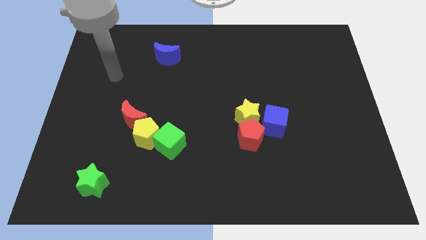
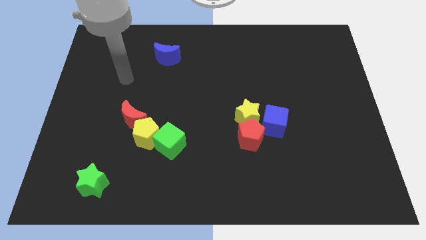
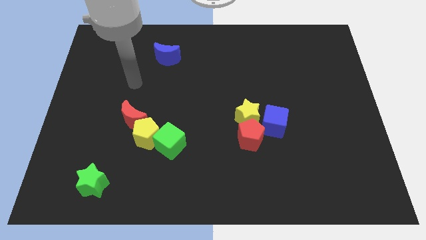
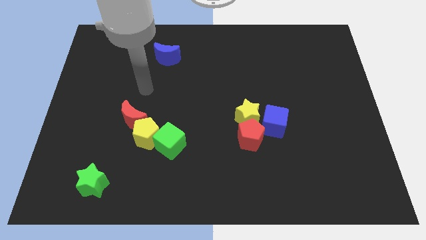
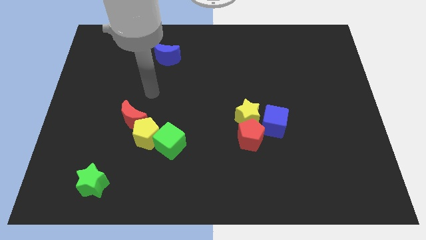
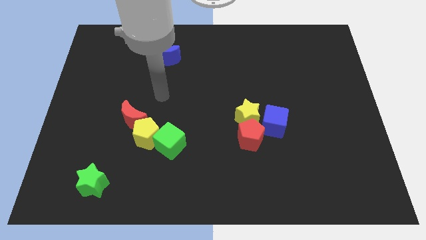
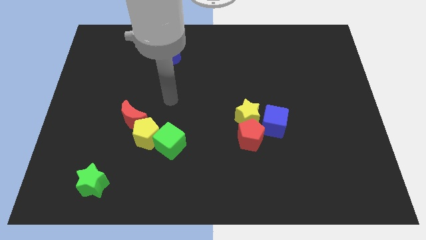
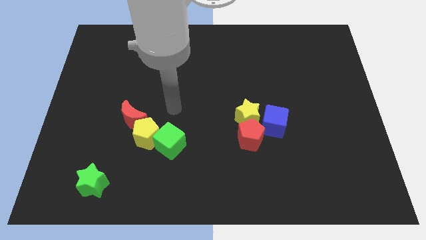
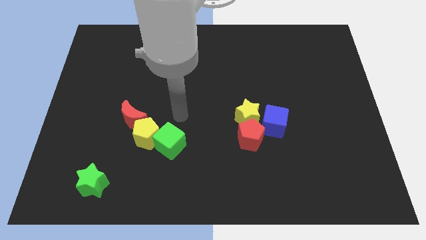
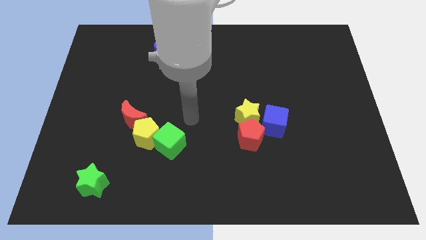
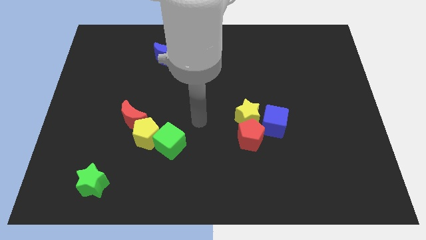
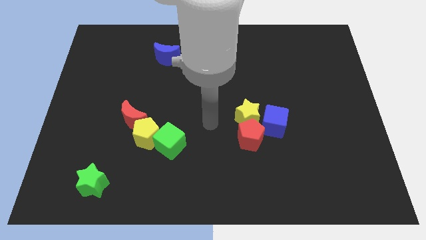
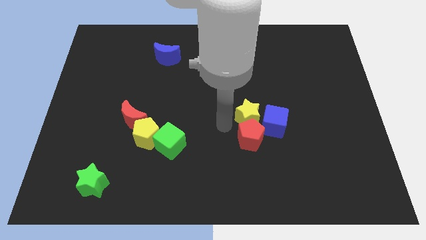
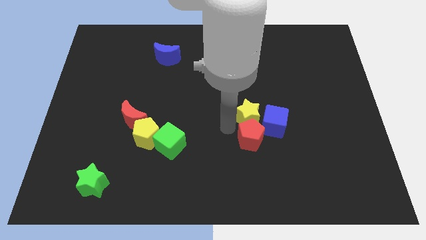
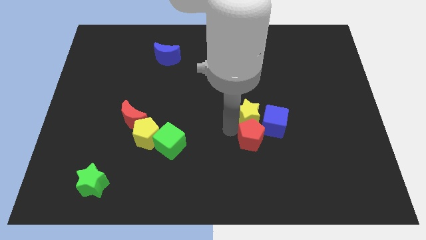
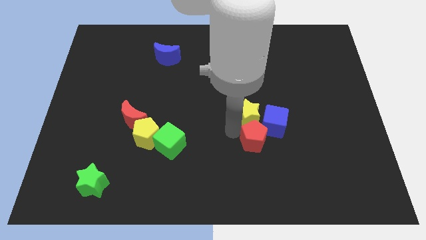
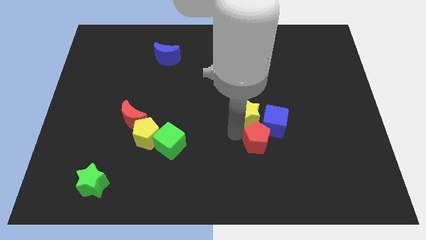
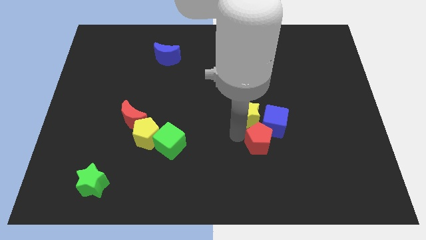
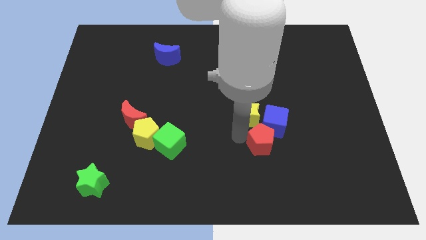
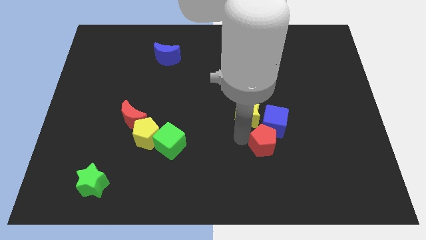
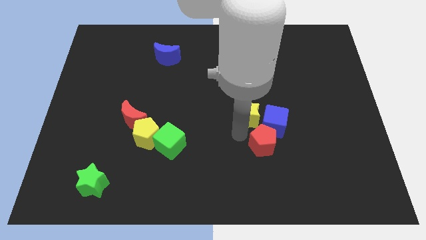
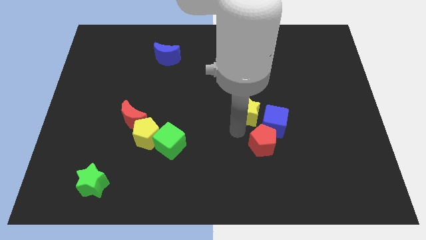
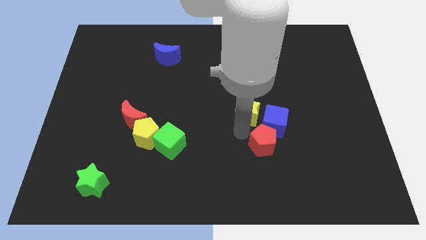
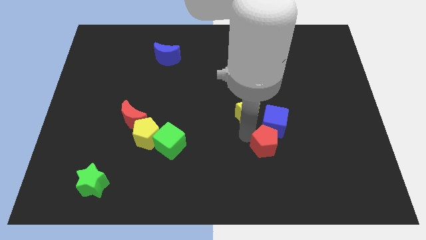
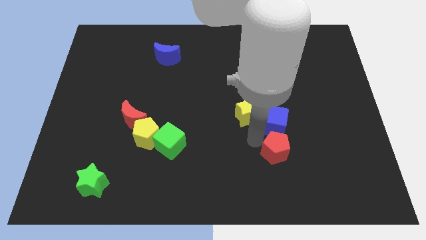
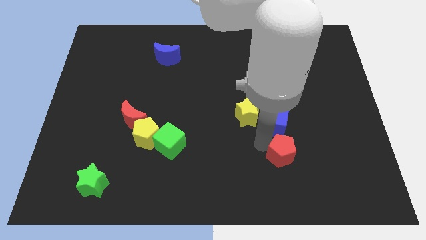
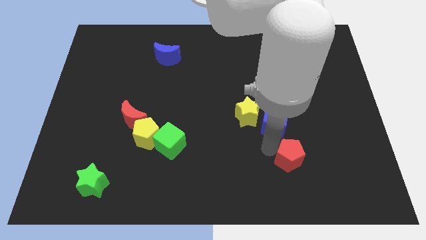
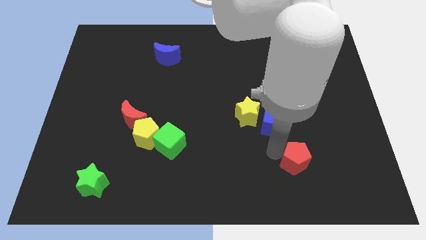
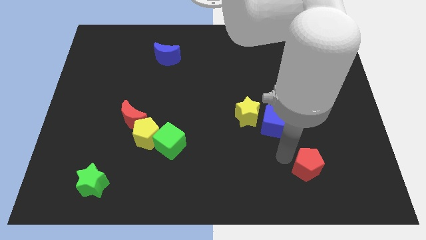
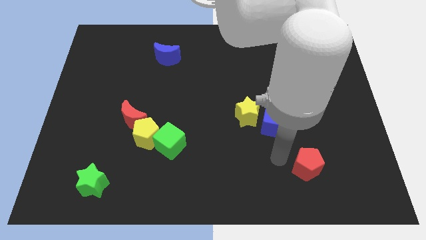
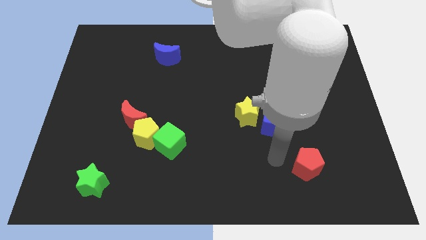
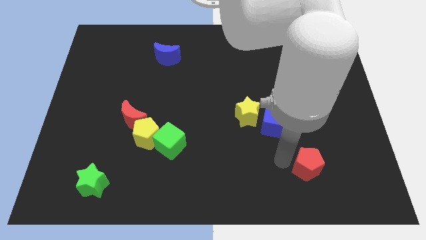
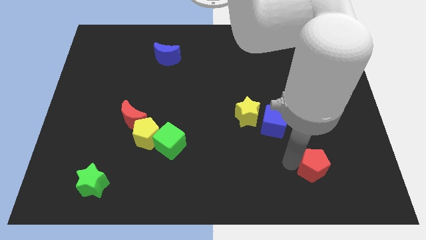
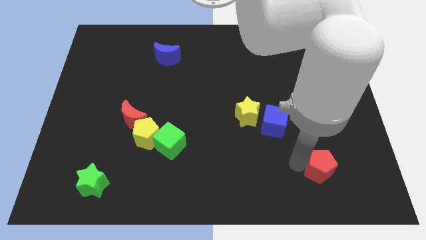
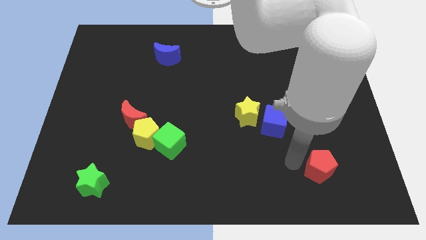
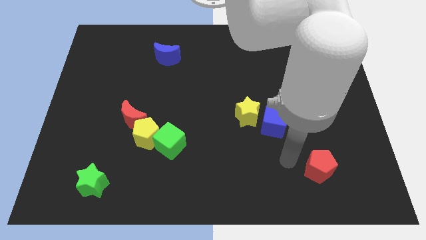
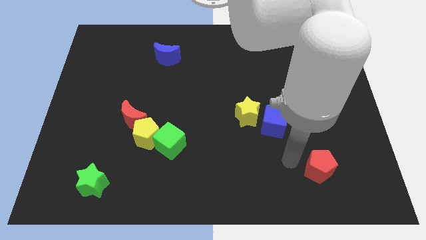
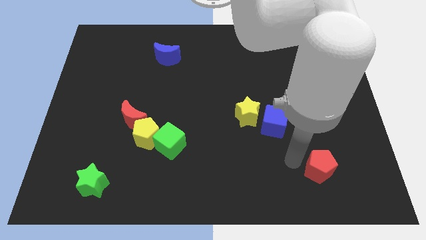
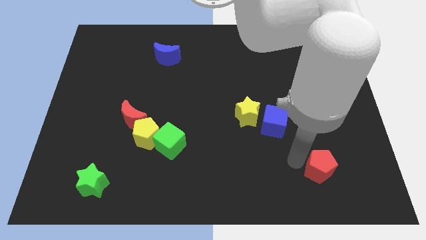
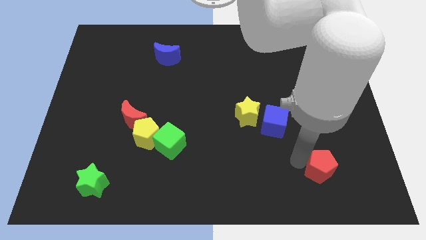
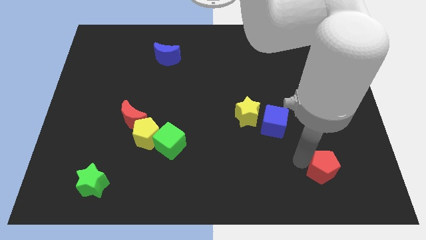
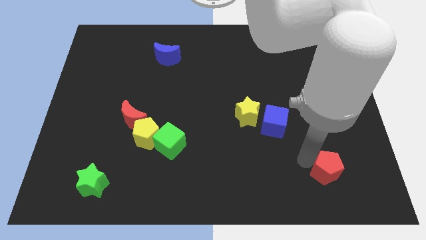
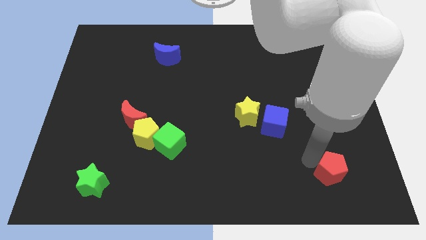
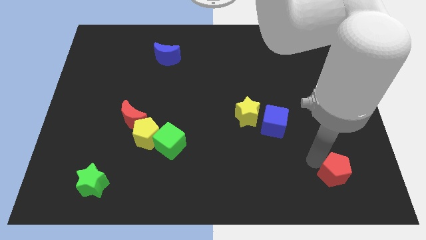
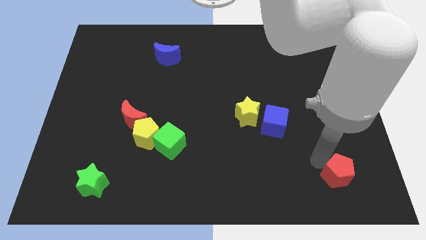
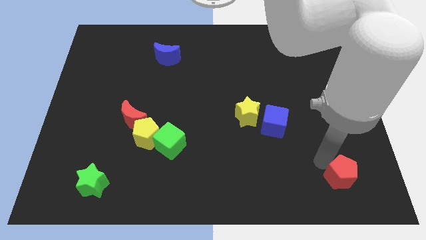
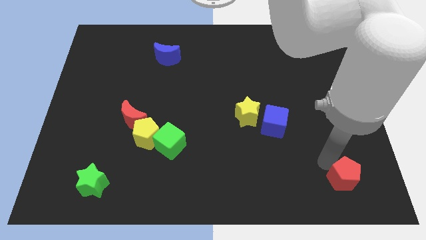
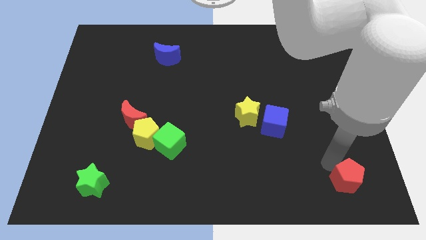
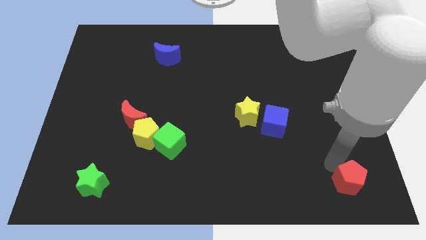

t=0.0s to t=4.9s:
put the red pentagon to the bottom right corner

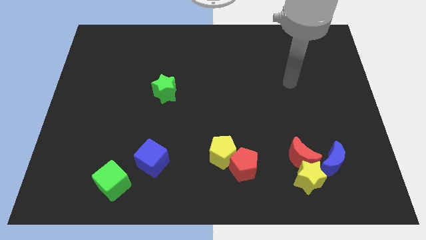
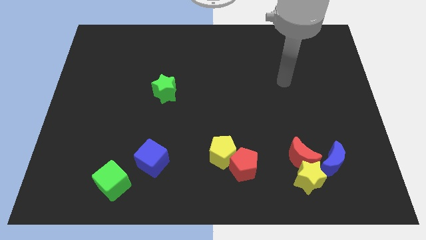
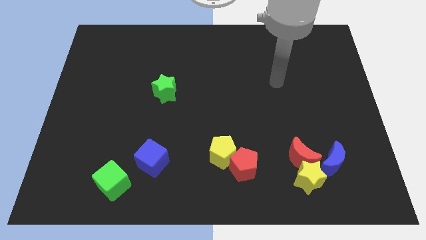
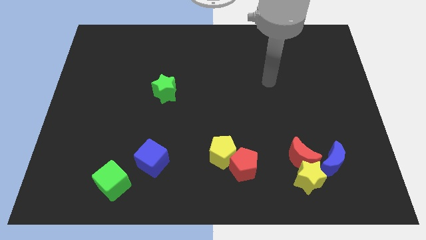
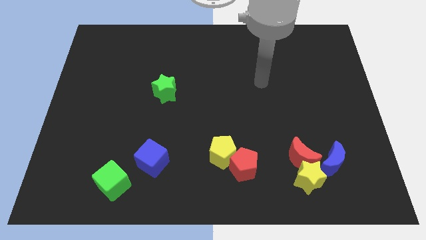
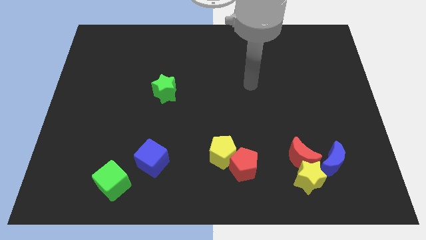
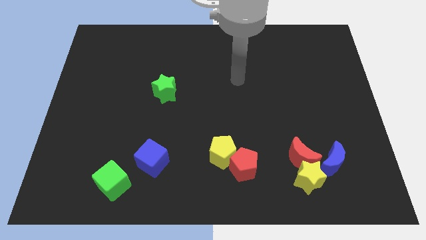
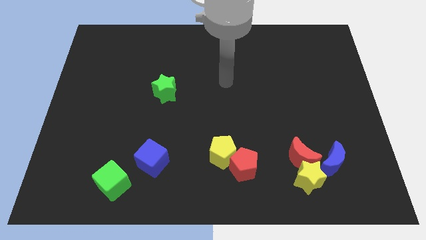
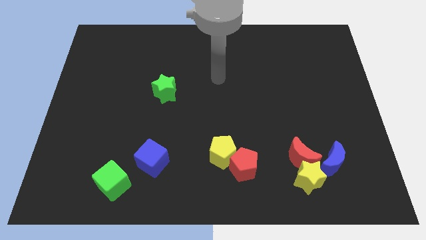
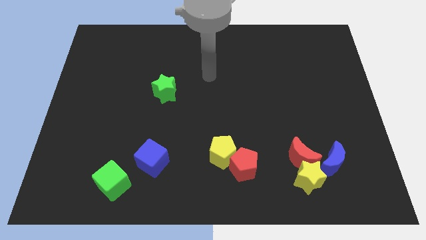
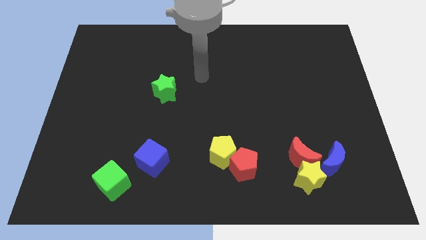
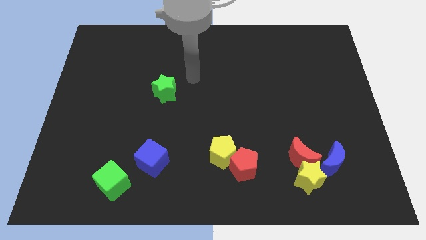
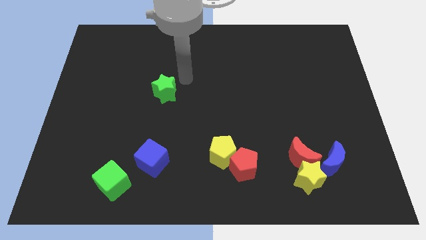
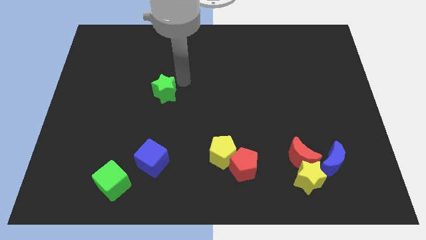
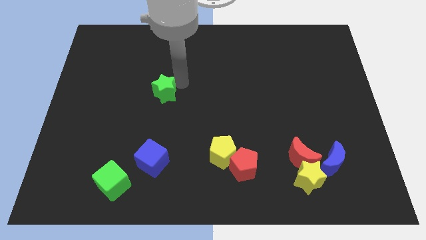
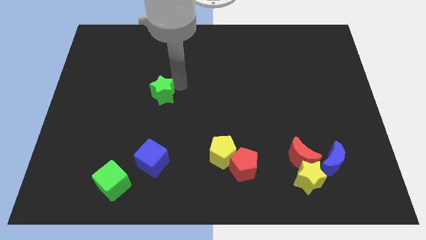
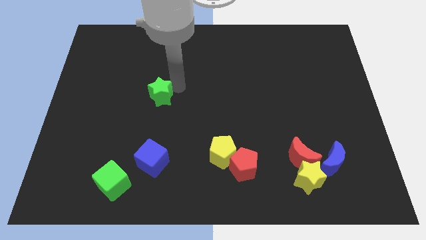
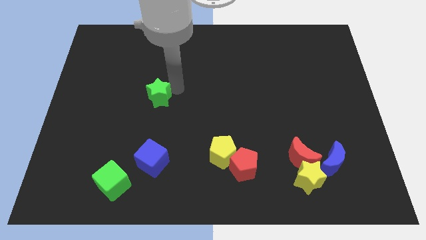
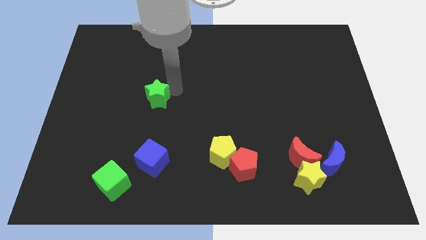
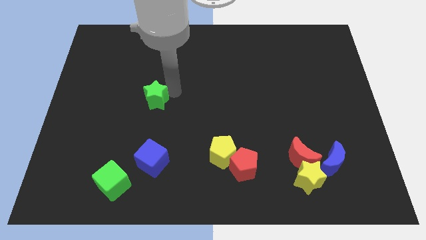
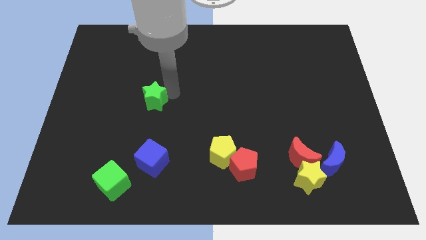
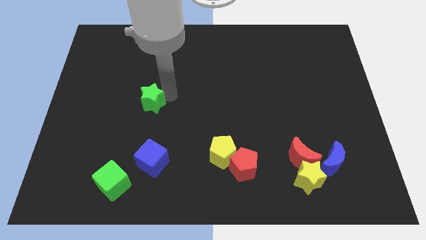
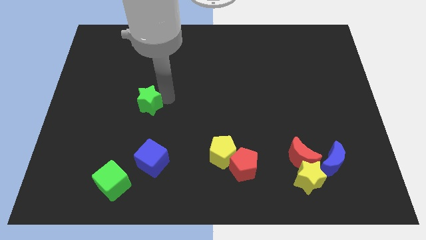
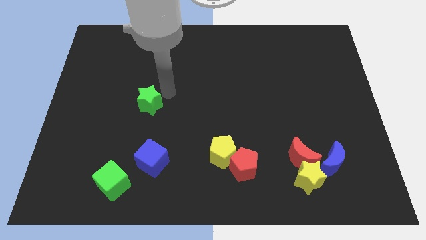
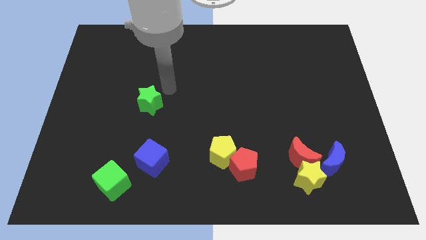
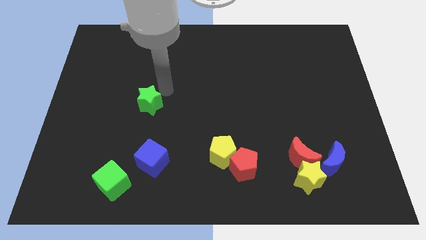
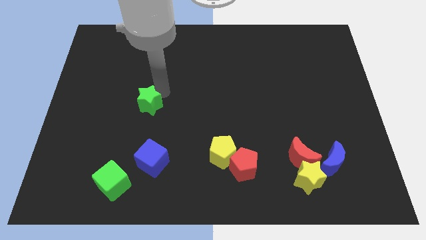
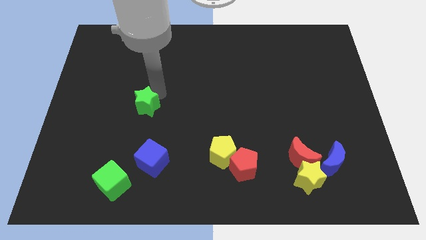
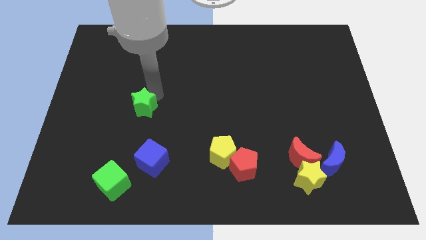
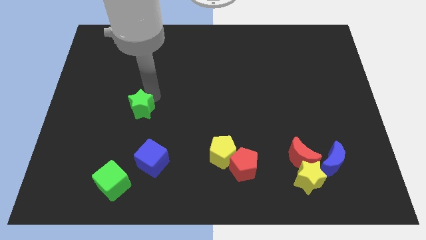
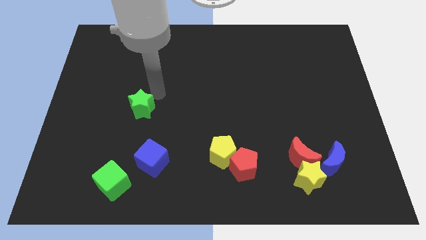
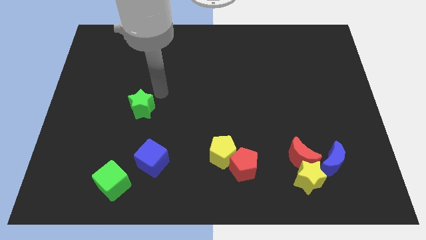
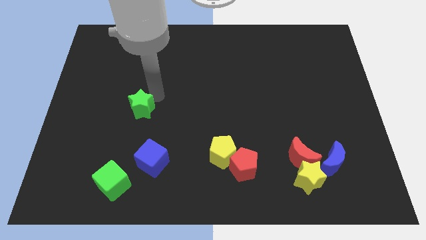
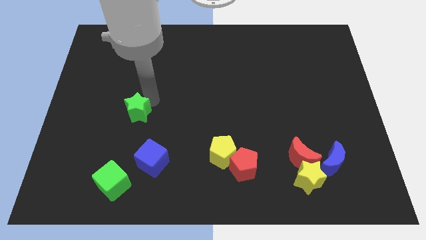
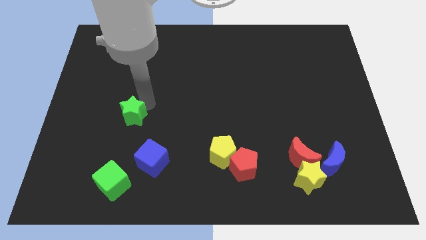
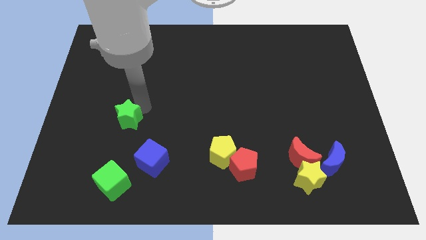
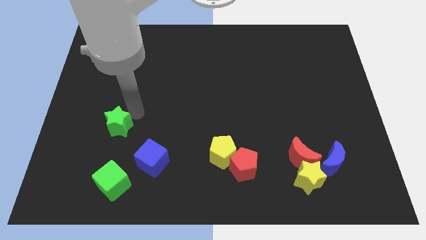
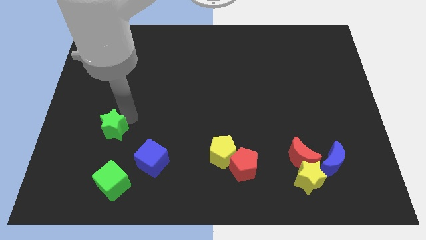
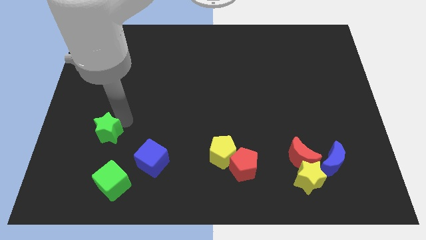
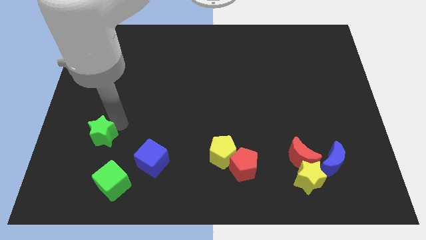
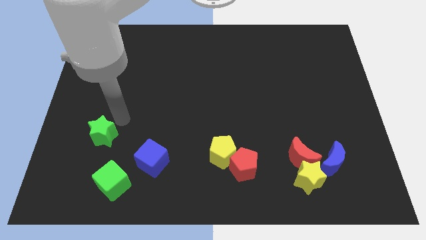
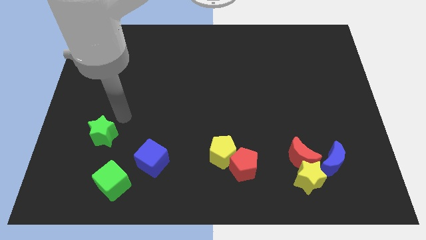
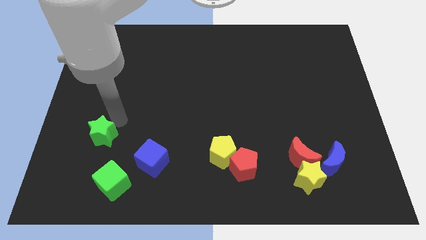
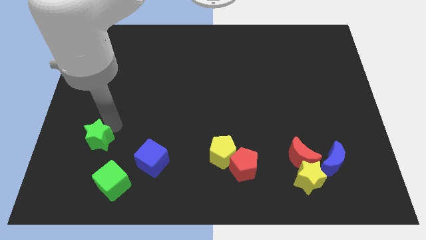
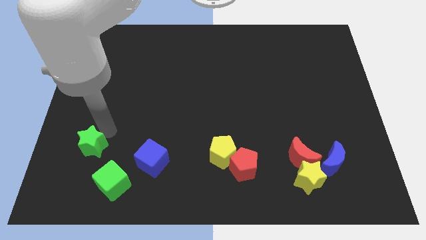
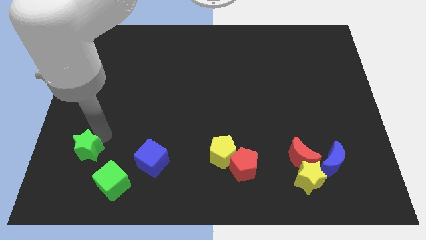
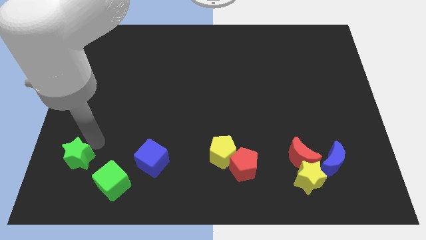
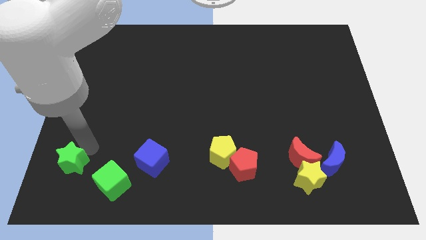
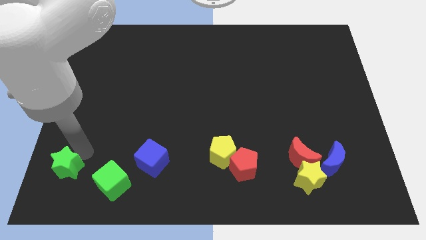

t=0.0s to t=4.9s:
slide the green star to the lower left corner
